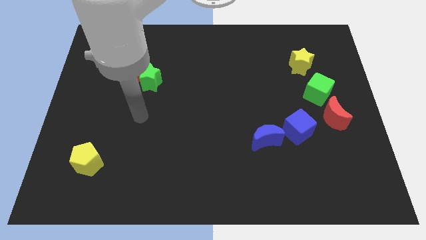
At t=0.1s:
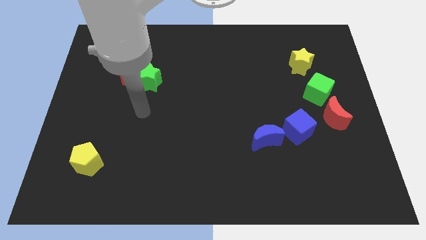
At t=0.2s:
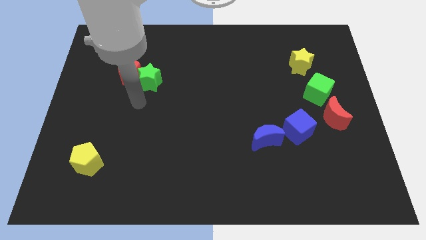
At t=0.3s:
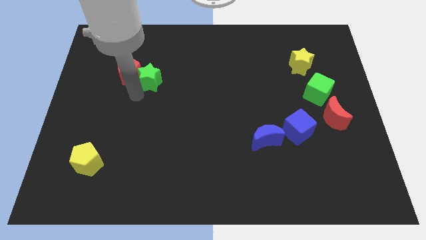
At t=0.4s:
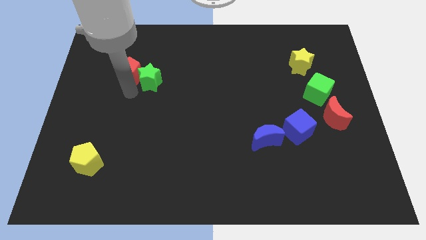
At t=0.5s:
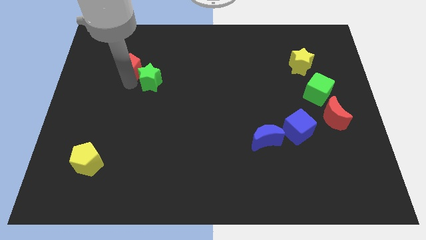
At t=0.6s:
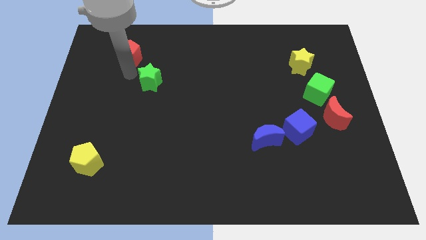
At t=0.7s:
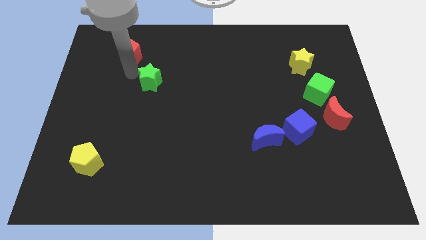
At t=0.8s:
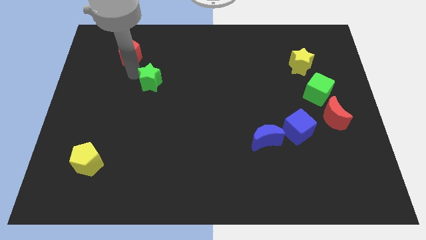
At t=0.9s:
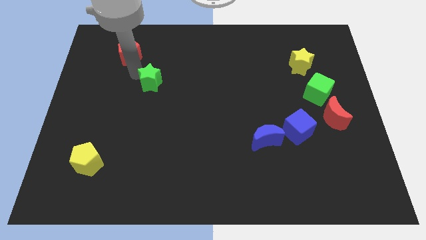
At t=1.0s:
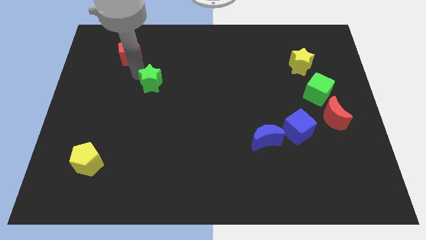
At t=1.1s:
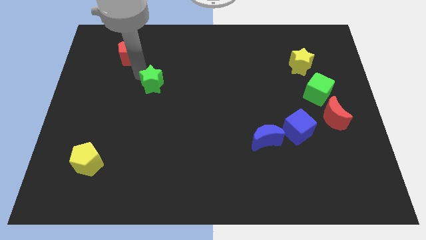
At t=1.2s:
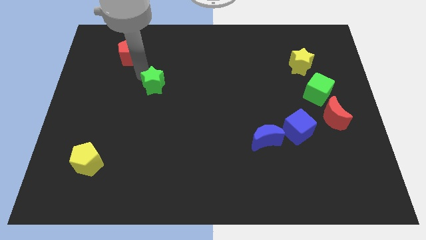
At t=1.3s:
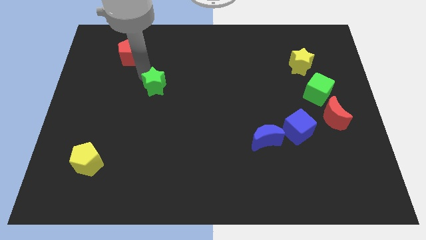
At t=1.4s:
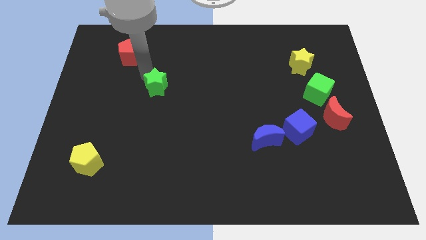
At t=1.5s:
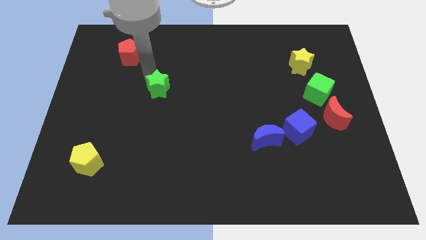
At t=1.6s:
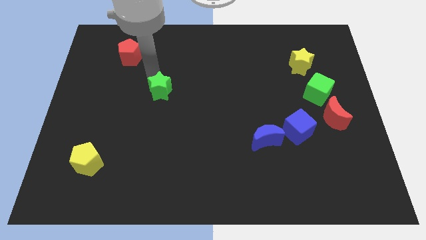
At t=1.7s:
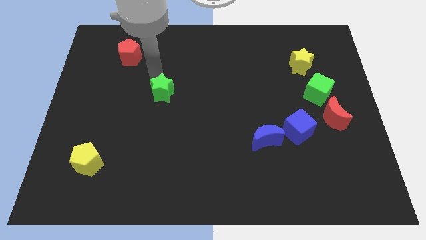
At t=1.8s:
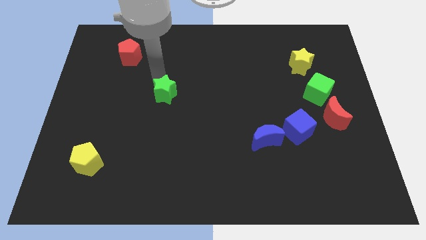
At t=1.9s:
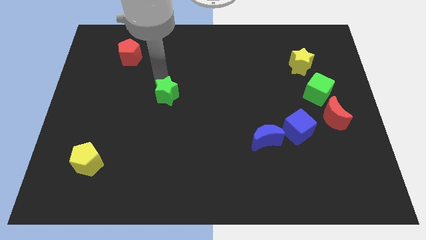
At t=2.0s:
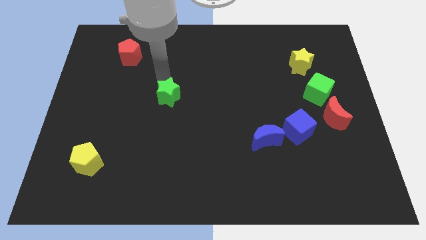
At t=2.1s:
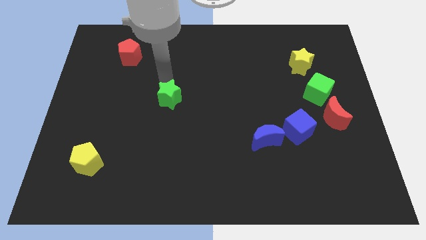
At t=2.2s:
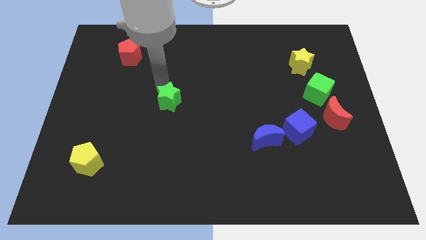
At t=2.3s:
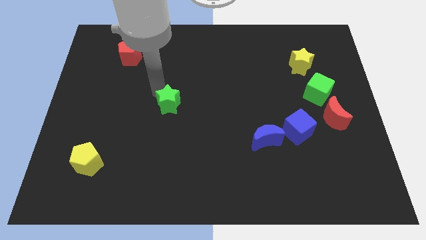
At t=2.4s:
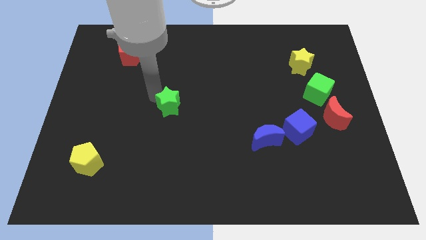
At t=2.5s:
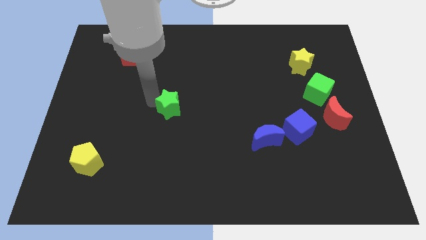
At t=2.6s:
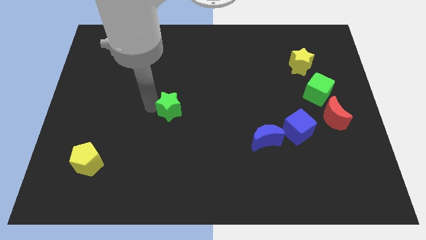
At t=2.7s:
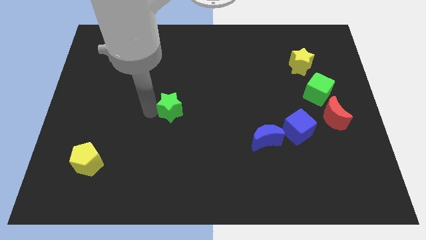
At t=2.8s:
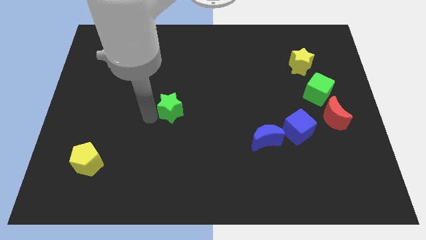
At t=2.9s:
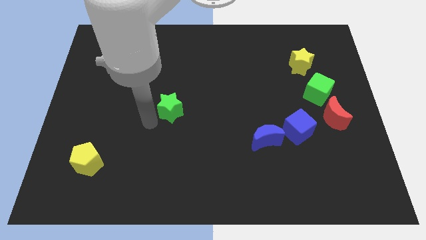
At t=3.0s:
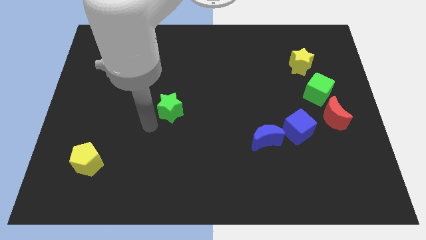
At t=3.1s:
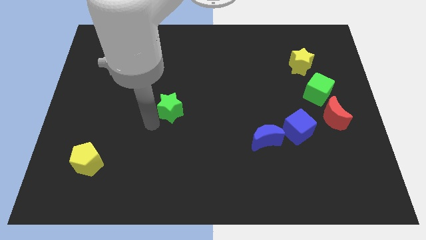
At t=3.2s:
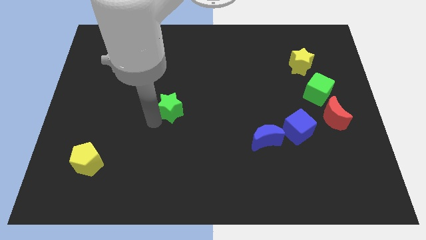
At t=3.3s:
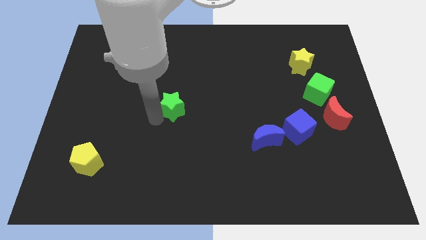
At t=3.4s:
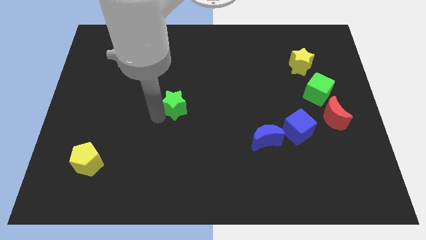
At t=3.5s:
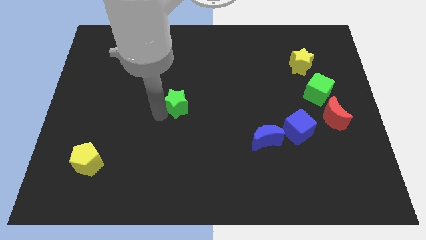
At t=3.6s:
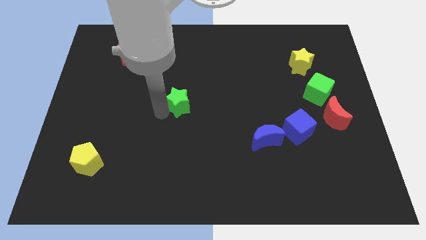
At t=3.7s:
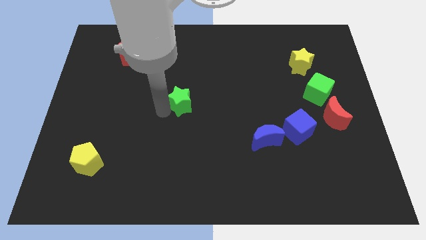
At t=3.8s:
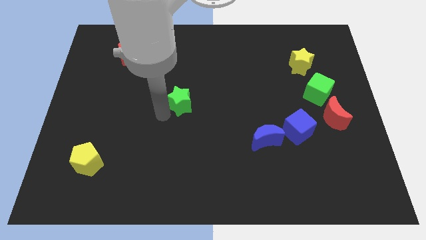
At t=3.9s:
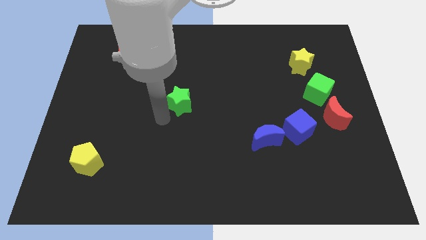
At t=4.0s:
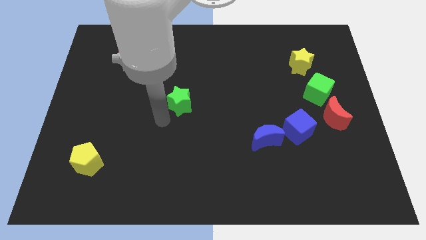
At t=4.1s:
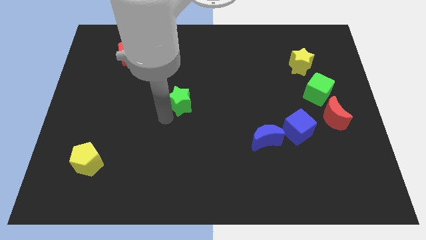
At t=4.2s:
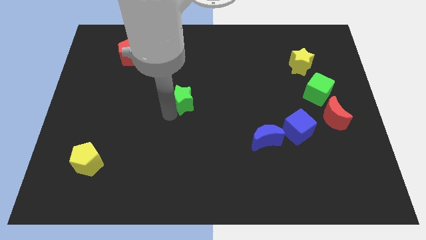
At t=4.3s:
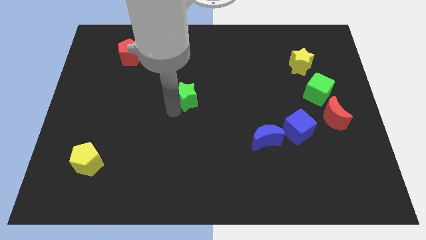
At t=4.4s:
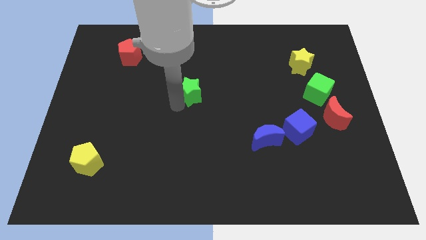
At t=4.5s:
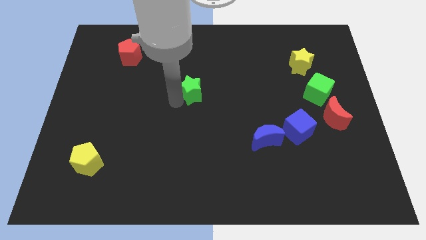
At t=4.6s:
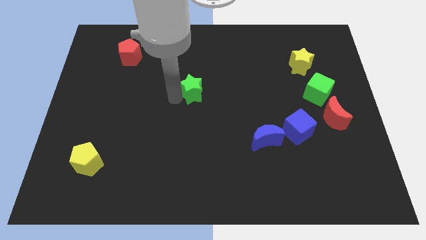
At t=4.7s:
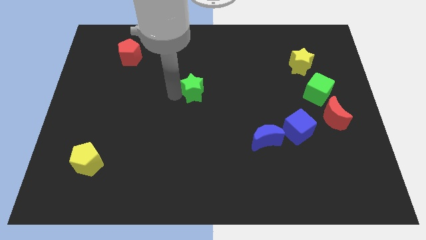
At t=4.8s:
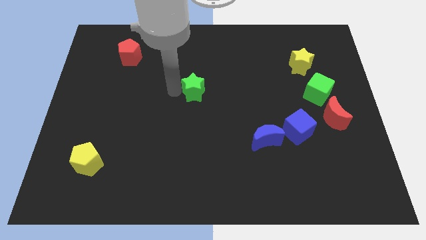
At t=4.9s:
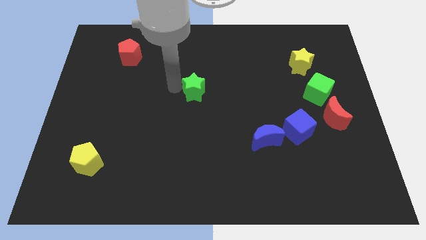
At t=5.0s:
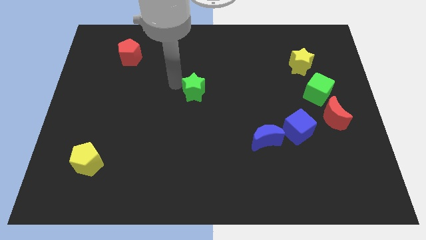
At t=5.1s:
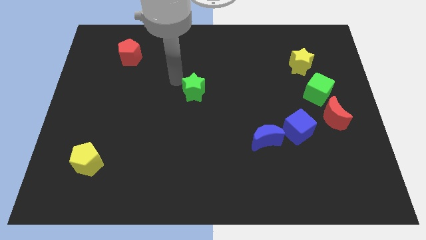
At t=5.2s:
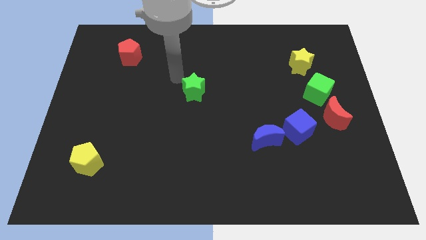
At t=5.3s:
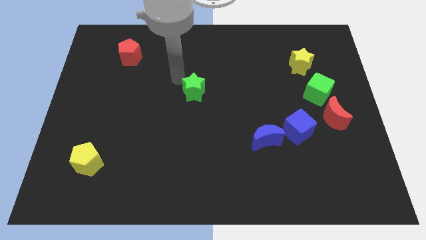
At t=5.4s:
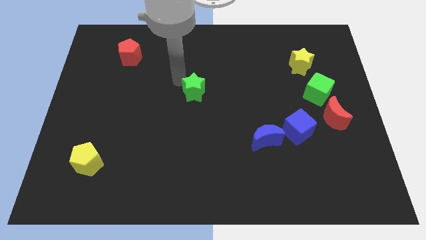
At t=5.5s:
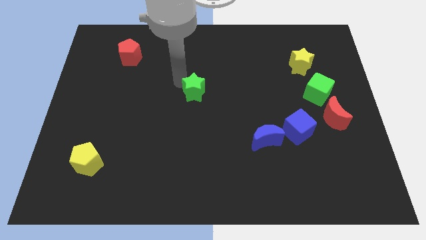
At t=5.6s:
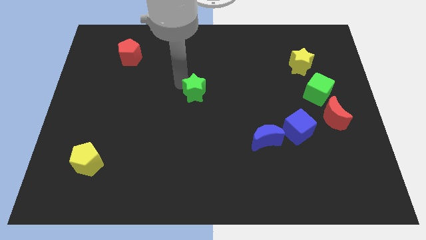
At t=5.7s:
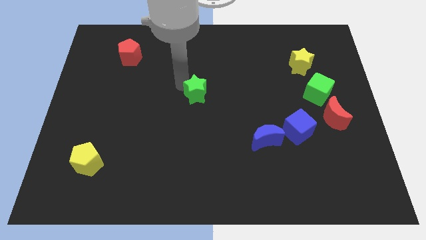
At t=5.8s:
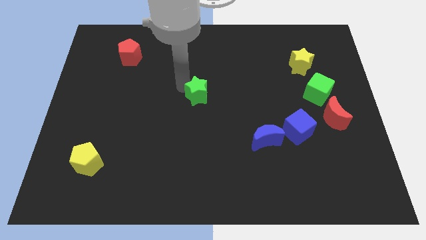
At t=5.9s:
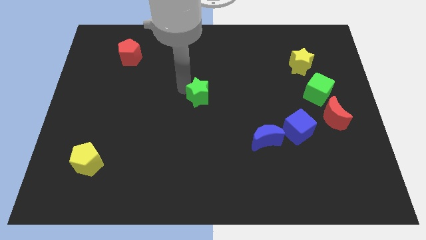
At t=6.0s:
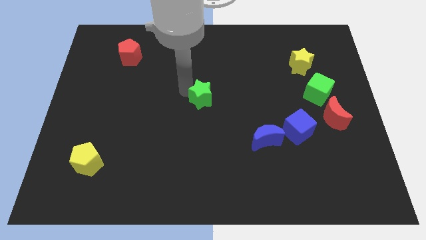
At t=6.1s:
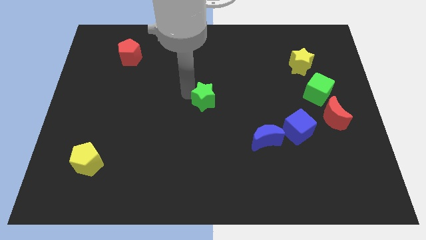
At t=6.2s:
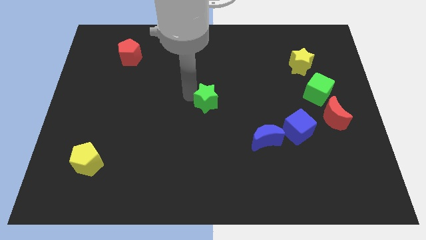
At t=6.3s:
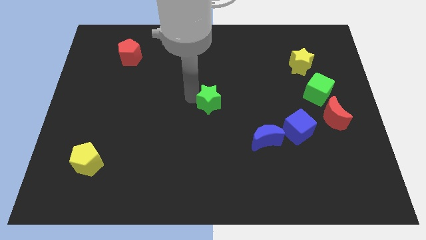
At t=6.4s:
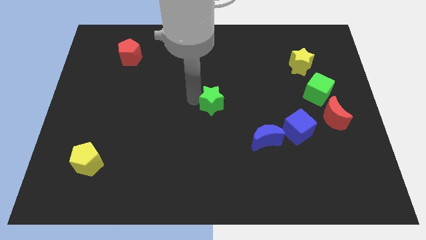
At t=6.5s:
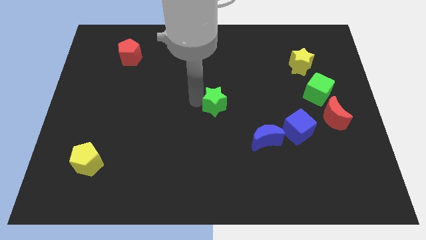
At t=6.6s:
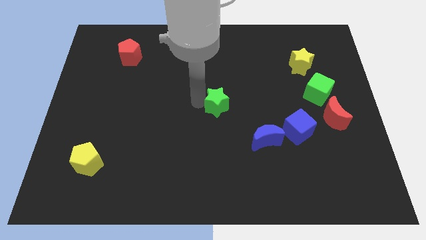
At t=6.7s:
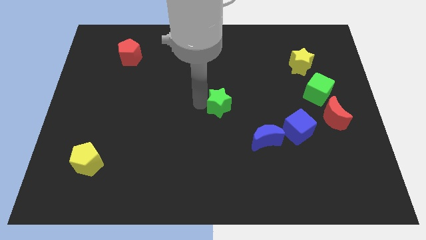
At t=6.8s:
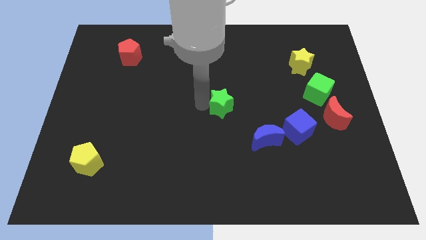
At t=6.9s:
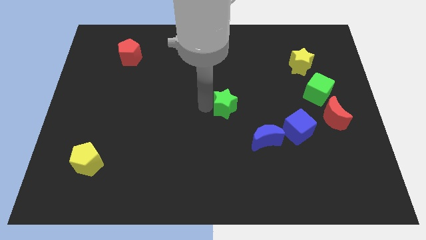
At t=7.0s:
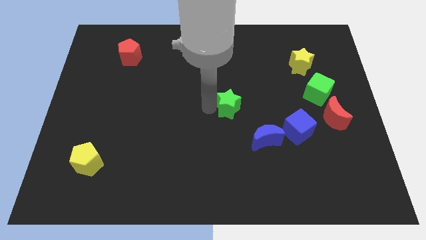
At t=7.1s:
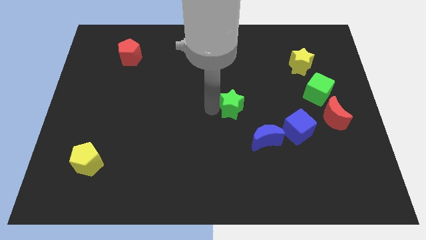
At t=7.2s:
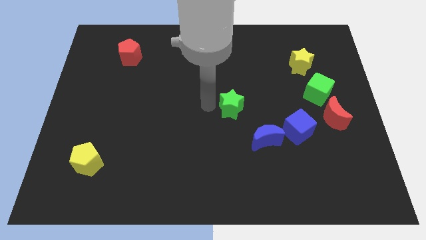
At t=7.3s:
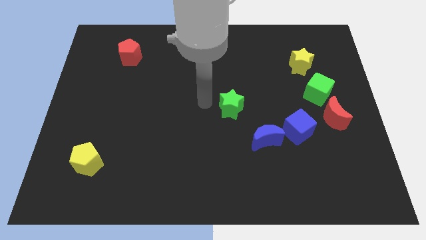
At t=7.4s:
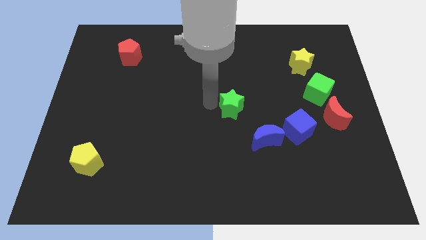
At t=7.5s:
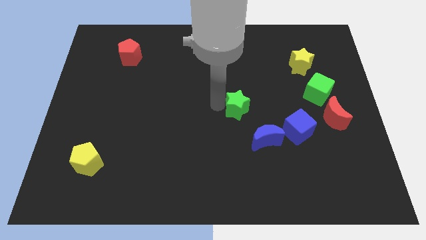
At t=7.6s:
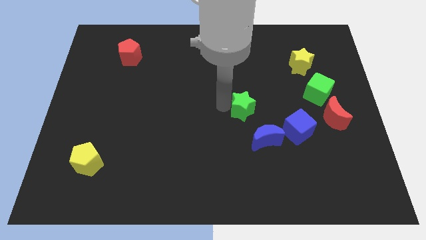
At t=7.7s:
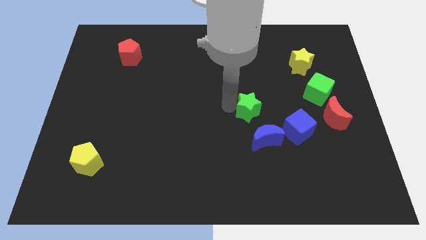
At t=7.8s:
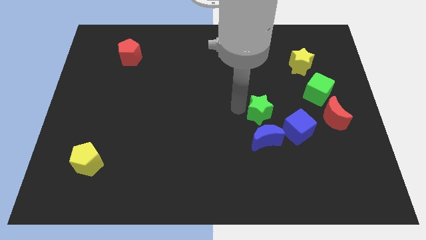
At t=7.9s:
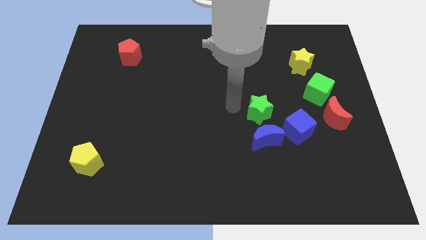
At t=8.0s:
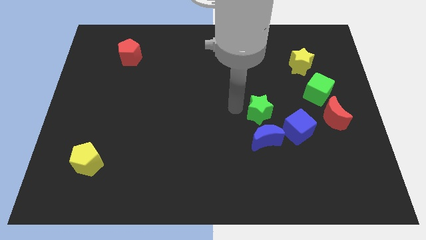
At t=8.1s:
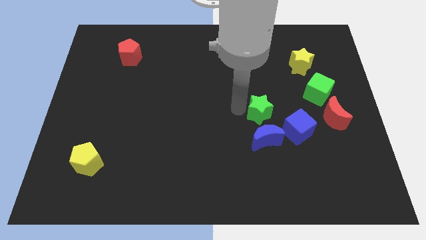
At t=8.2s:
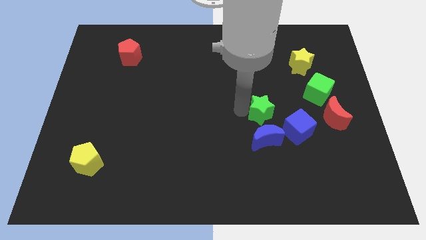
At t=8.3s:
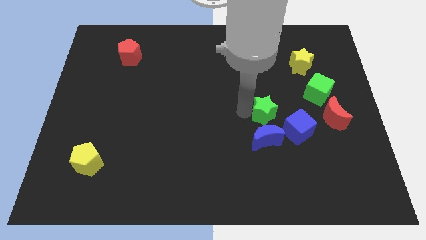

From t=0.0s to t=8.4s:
put the green star just left of the red moon
